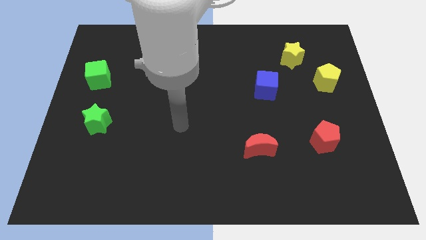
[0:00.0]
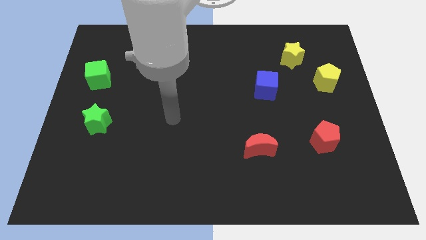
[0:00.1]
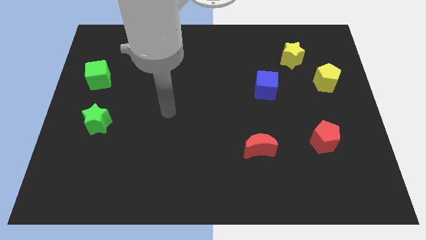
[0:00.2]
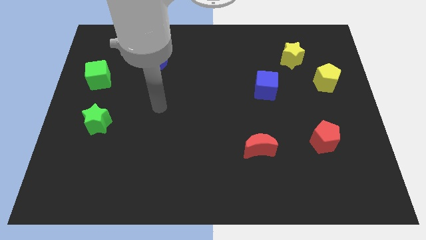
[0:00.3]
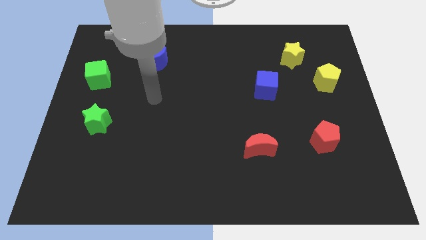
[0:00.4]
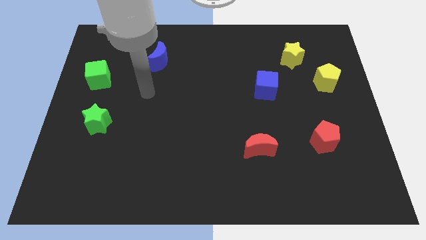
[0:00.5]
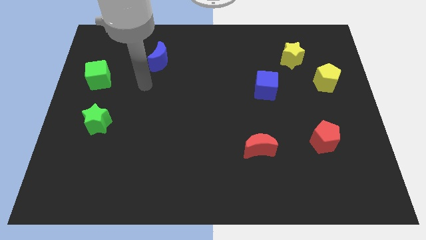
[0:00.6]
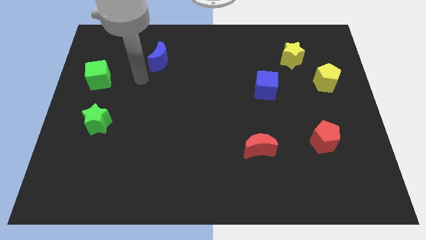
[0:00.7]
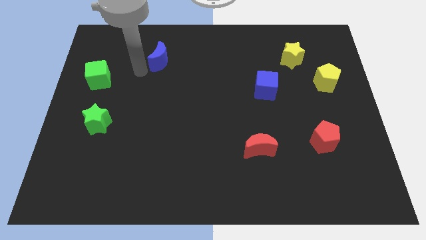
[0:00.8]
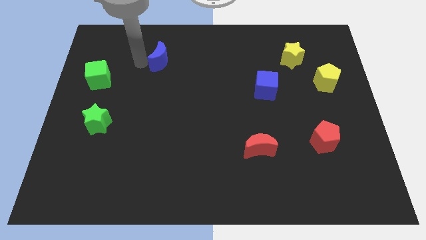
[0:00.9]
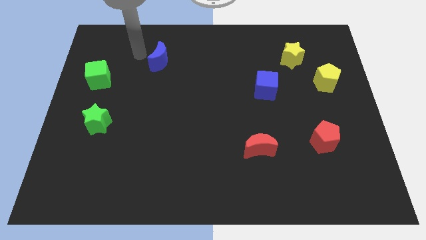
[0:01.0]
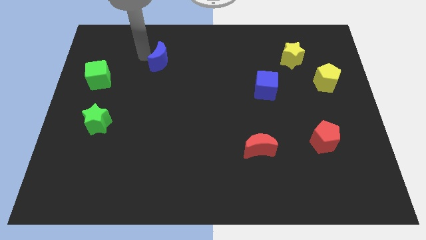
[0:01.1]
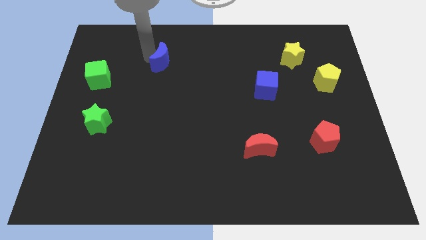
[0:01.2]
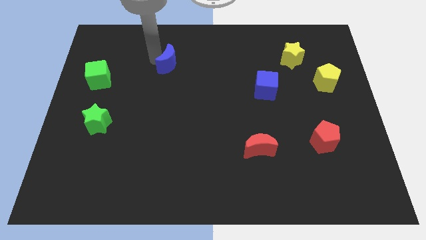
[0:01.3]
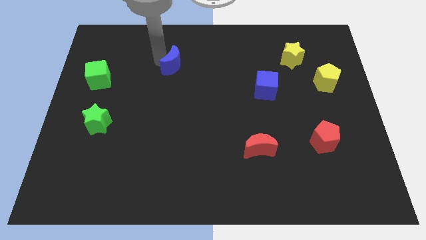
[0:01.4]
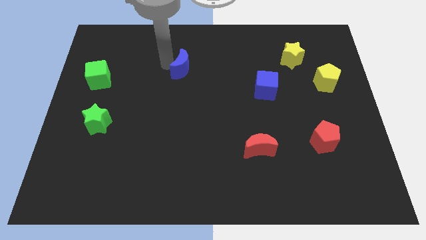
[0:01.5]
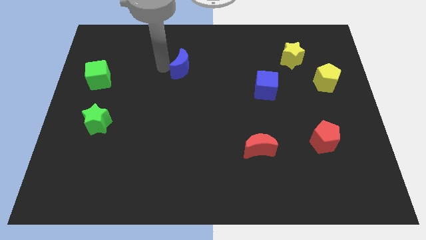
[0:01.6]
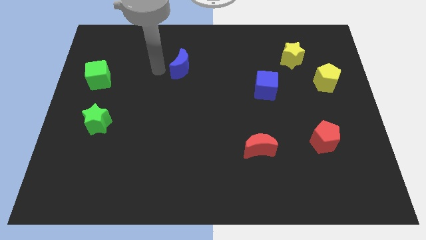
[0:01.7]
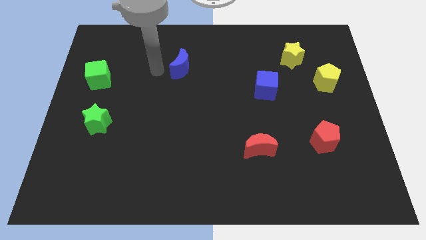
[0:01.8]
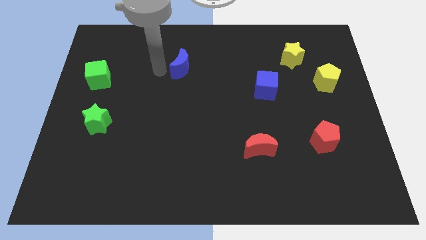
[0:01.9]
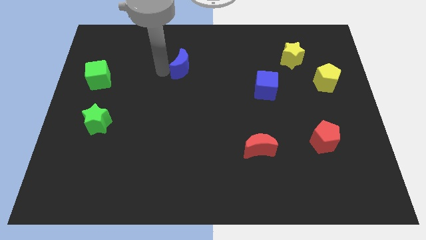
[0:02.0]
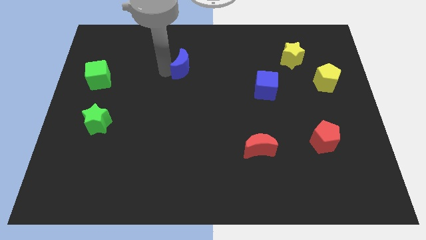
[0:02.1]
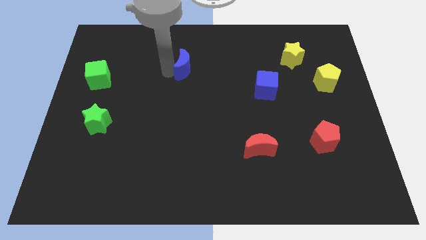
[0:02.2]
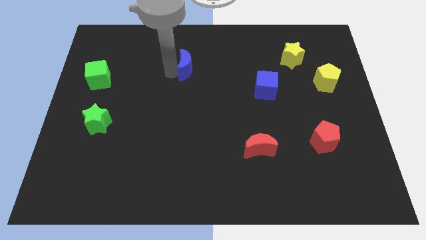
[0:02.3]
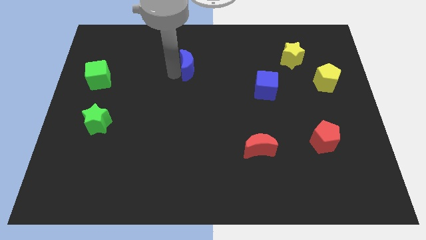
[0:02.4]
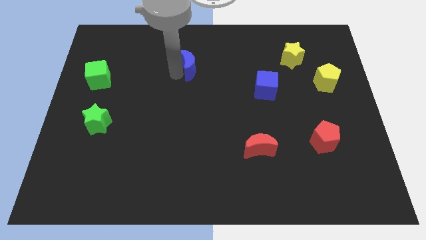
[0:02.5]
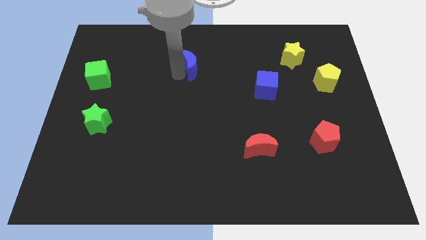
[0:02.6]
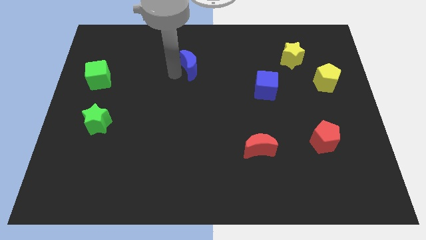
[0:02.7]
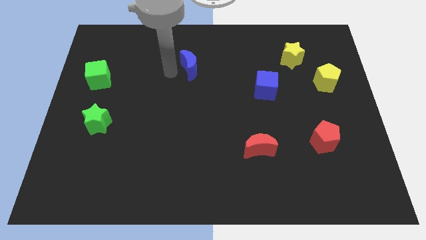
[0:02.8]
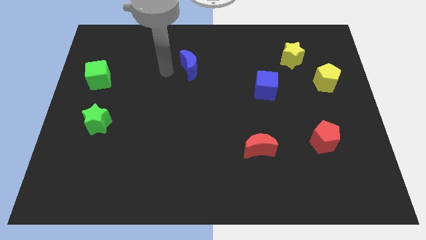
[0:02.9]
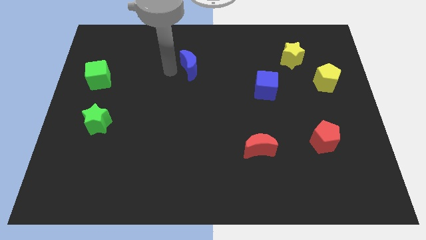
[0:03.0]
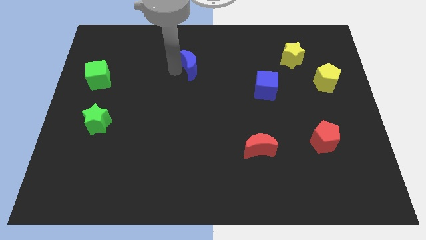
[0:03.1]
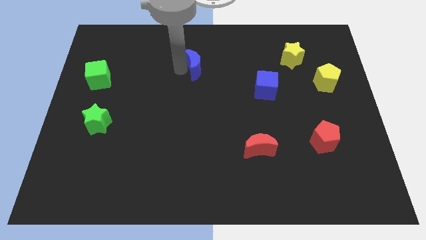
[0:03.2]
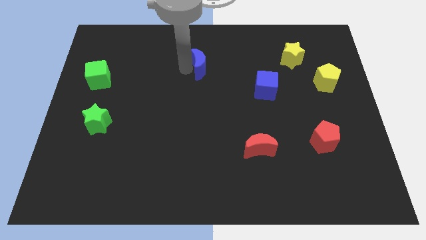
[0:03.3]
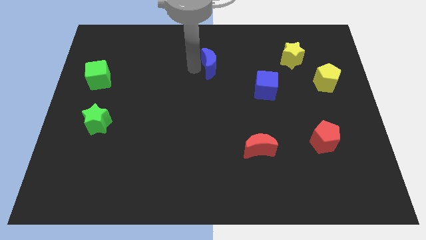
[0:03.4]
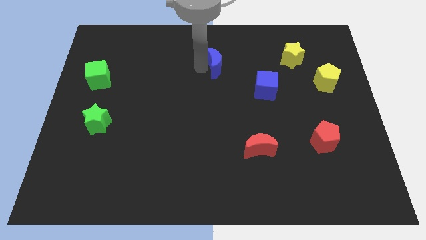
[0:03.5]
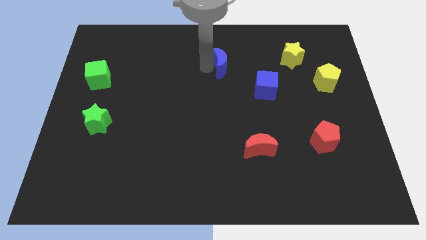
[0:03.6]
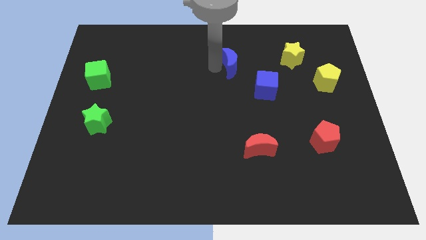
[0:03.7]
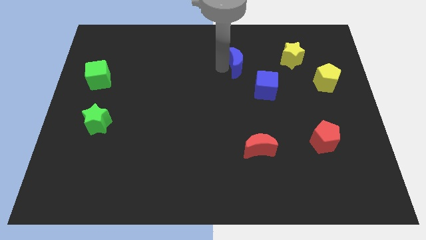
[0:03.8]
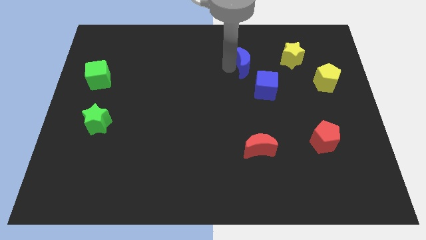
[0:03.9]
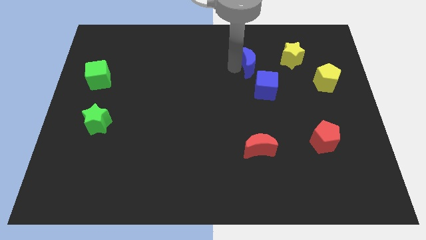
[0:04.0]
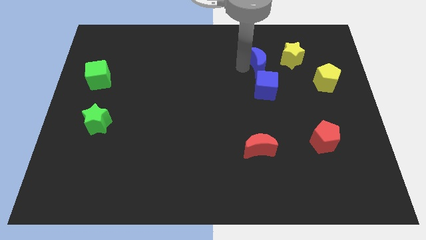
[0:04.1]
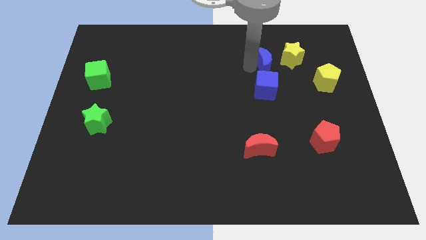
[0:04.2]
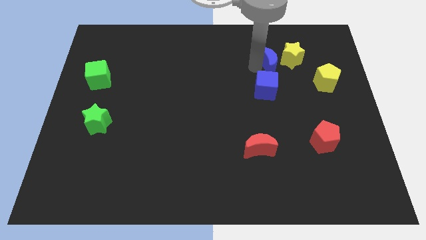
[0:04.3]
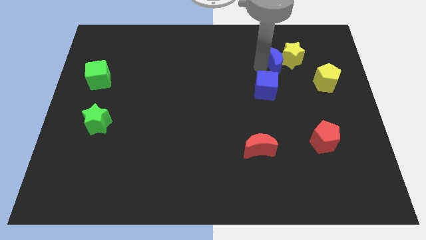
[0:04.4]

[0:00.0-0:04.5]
move the blue moon towards the yellow star

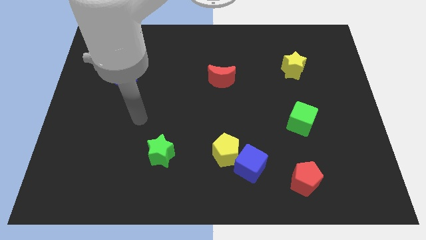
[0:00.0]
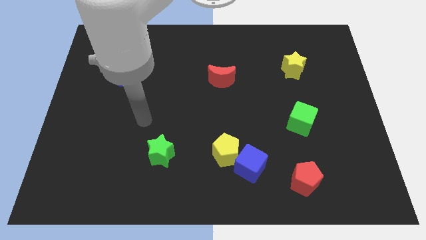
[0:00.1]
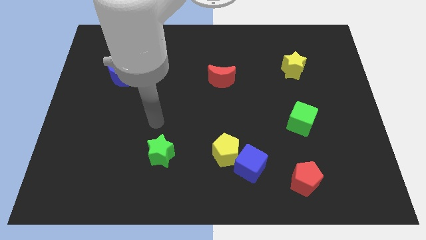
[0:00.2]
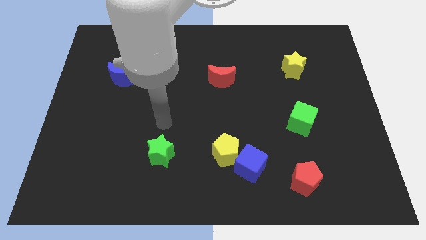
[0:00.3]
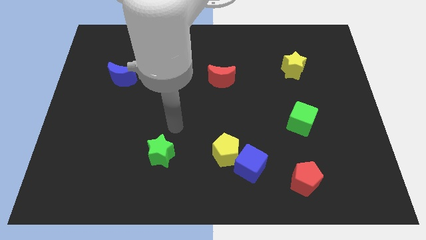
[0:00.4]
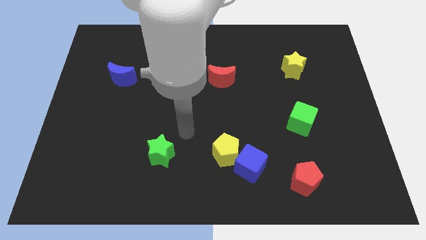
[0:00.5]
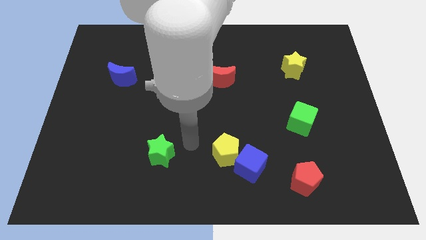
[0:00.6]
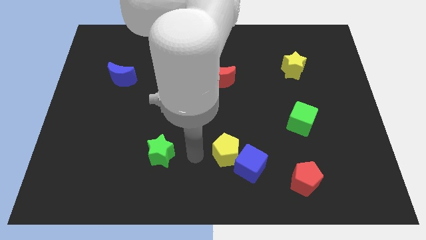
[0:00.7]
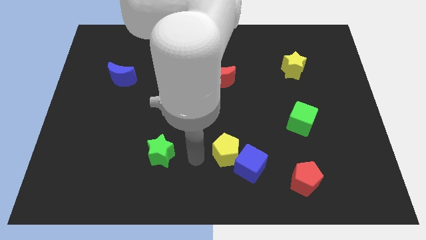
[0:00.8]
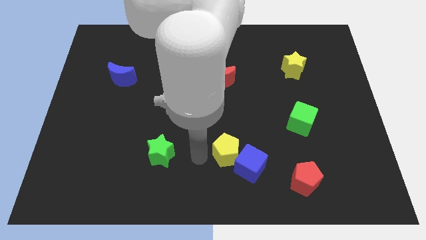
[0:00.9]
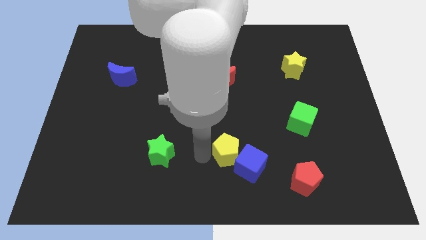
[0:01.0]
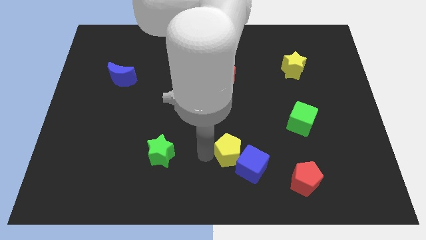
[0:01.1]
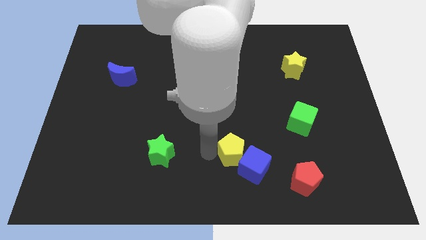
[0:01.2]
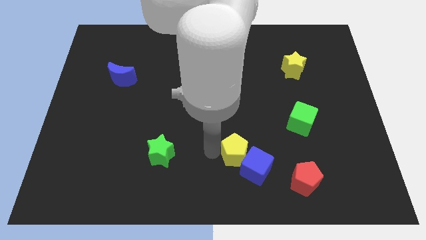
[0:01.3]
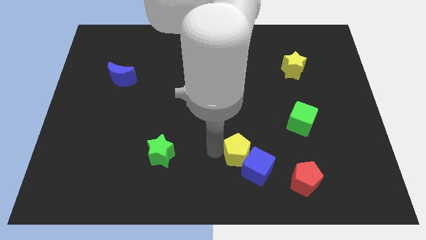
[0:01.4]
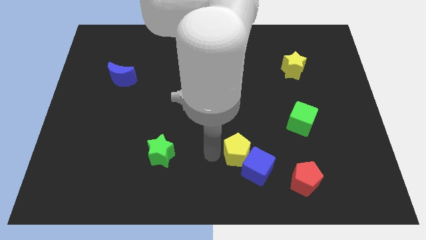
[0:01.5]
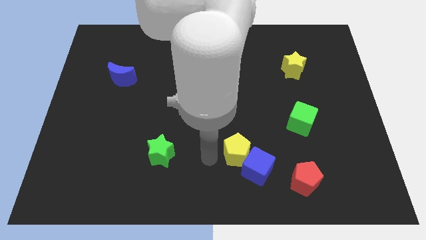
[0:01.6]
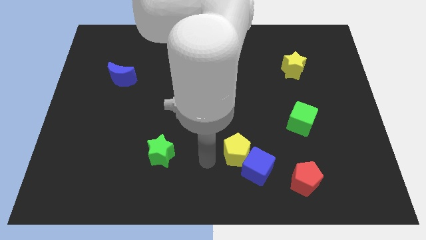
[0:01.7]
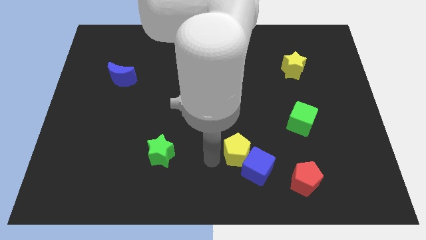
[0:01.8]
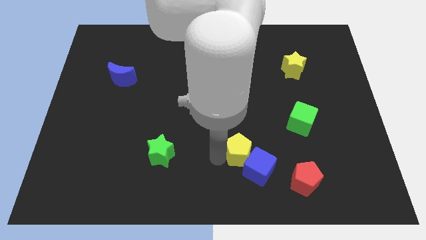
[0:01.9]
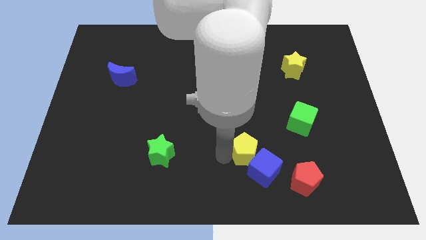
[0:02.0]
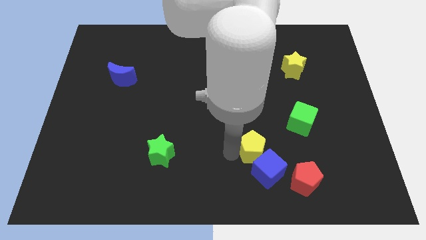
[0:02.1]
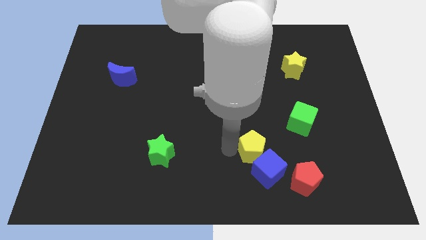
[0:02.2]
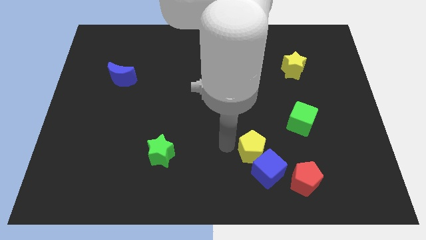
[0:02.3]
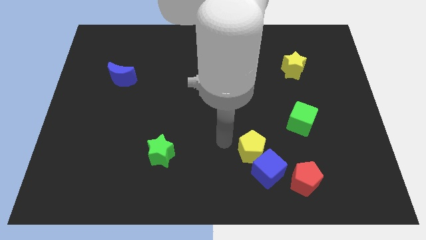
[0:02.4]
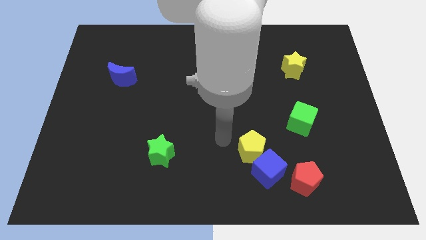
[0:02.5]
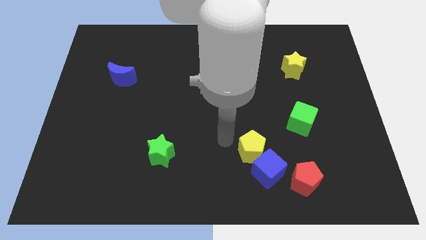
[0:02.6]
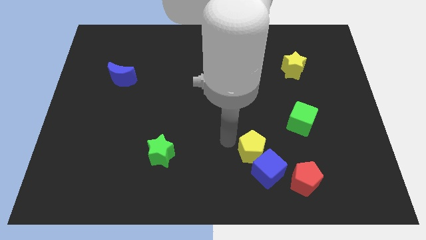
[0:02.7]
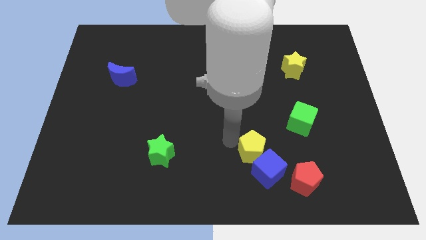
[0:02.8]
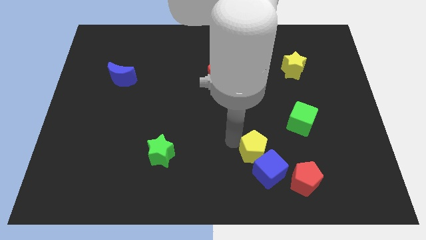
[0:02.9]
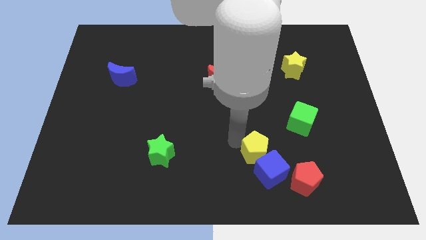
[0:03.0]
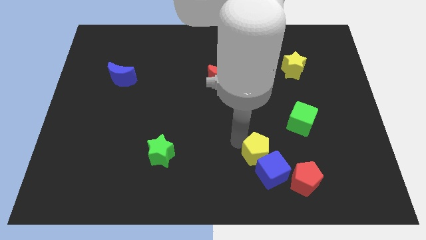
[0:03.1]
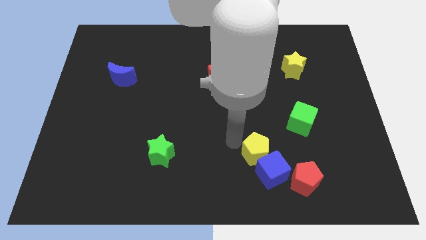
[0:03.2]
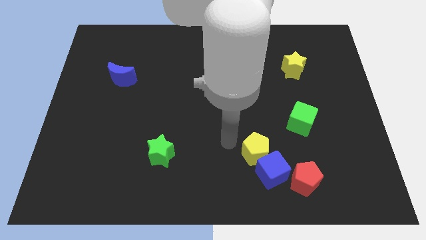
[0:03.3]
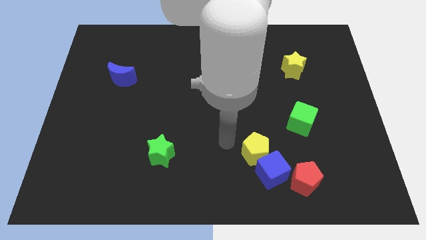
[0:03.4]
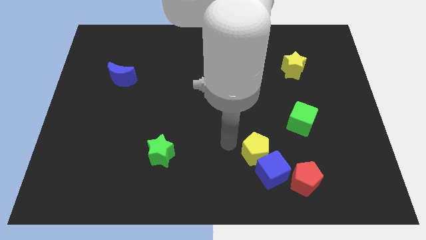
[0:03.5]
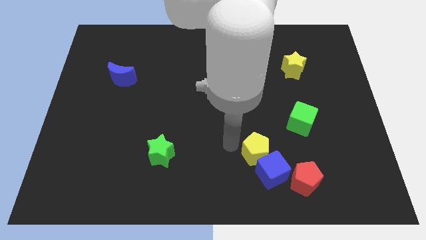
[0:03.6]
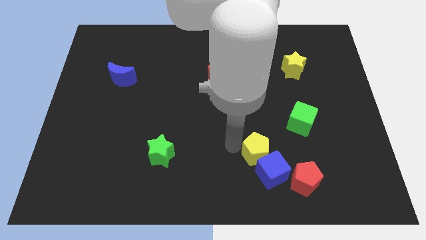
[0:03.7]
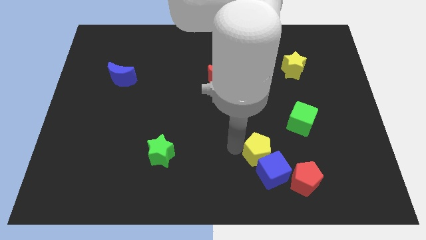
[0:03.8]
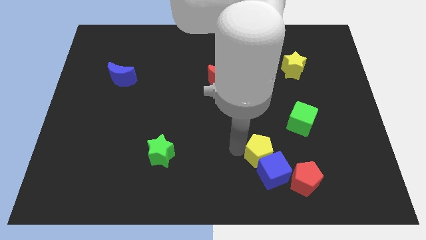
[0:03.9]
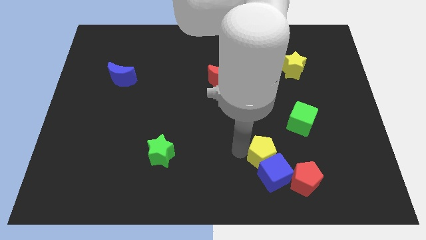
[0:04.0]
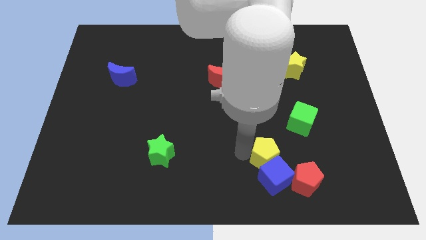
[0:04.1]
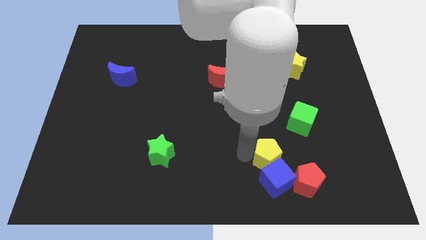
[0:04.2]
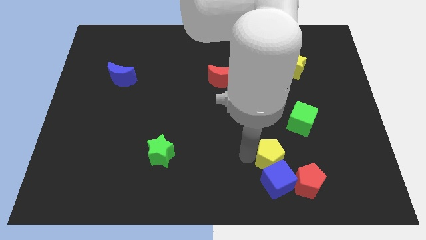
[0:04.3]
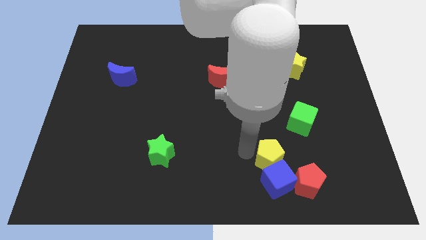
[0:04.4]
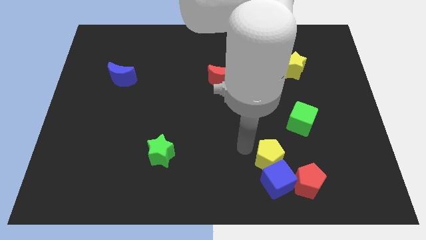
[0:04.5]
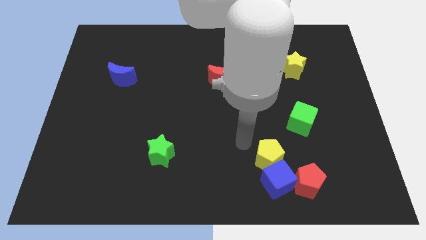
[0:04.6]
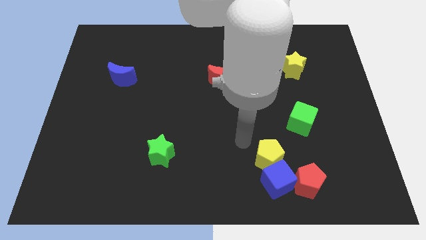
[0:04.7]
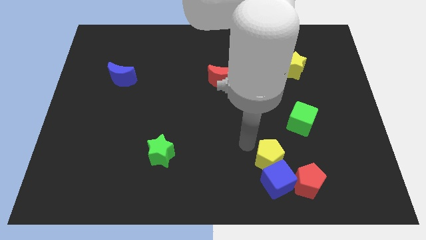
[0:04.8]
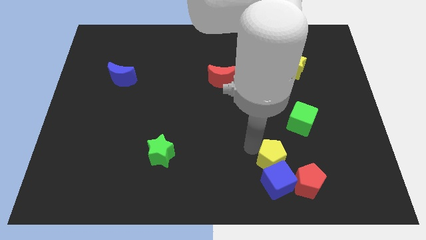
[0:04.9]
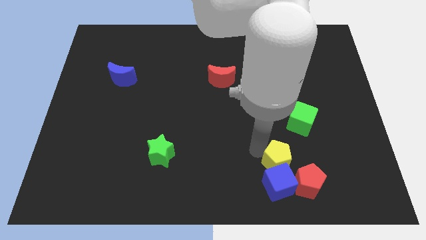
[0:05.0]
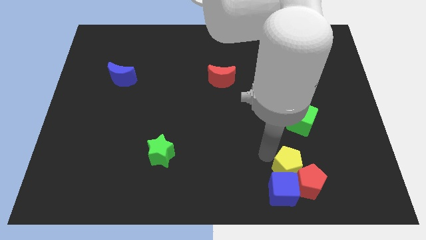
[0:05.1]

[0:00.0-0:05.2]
slide the yellow pentagon next to the red pentagon
